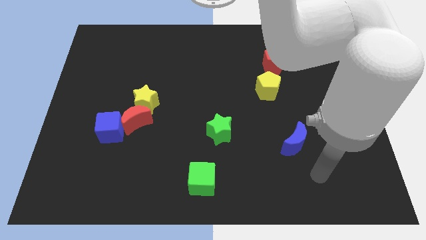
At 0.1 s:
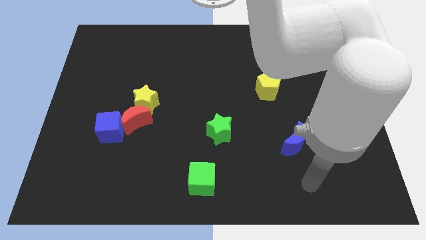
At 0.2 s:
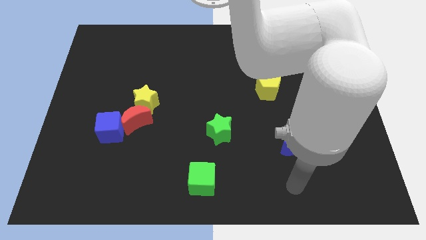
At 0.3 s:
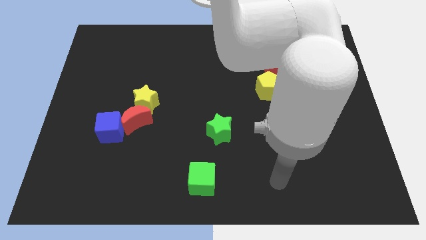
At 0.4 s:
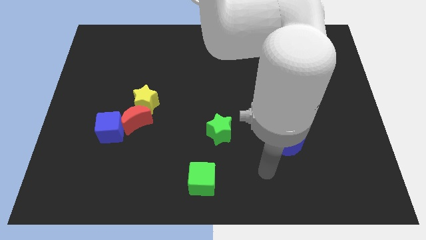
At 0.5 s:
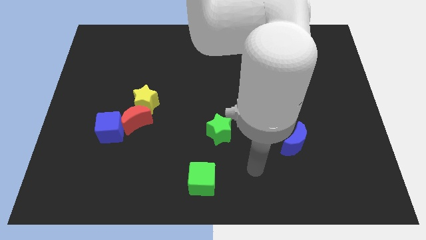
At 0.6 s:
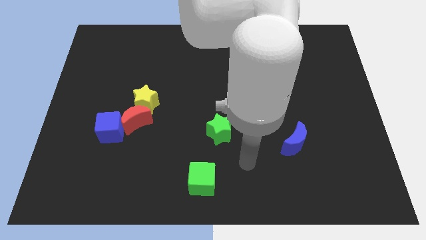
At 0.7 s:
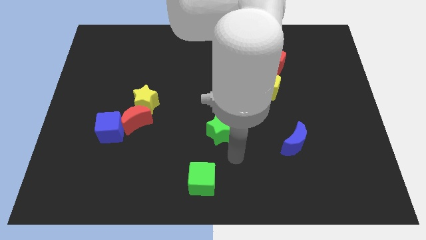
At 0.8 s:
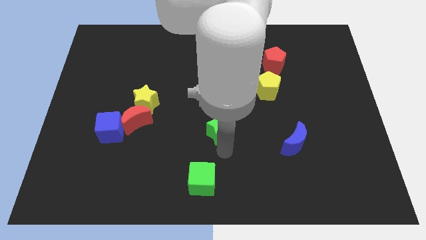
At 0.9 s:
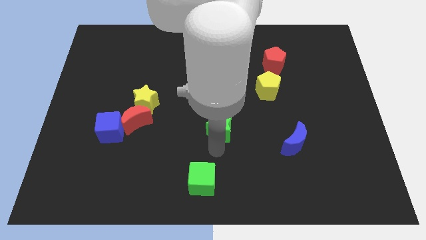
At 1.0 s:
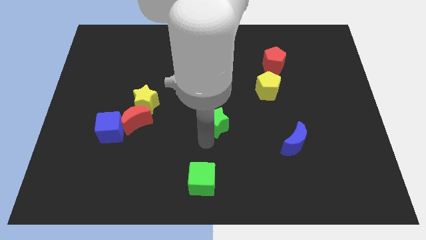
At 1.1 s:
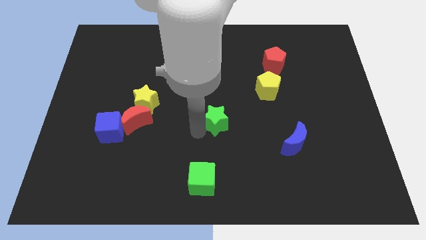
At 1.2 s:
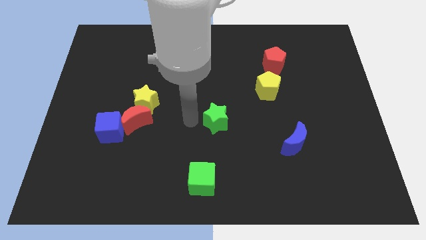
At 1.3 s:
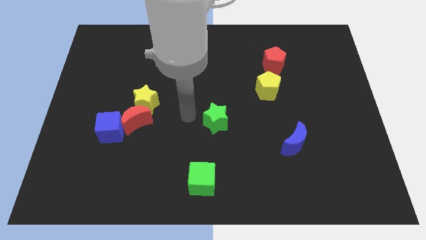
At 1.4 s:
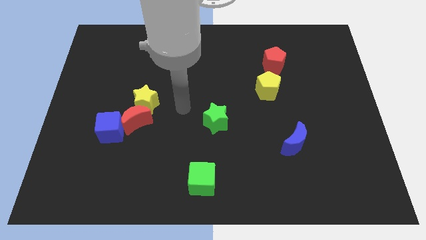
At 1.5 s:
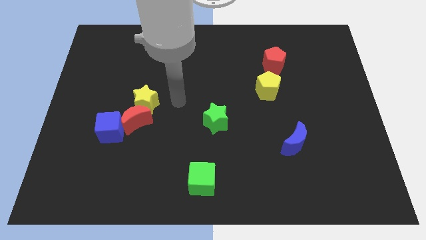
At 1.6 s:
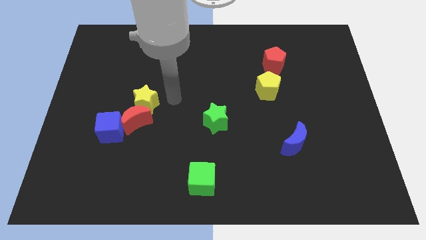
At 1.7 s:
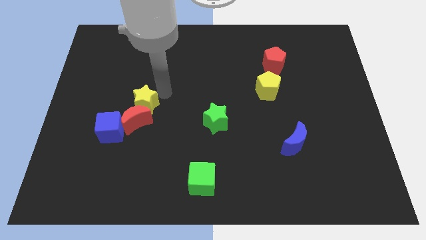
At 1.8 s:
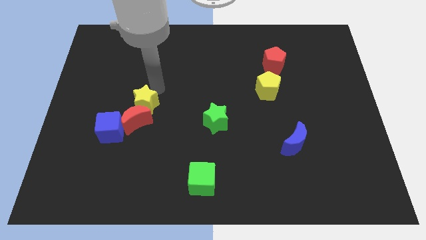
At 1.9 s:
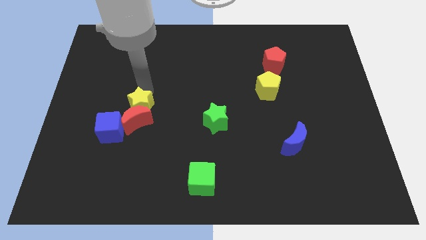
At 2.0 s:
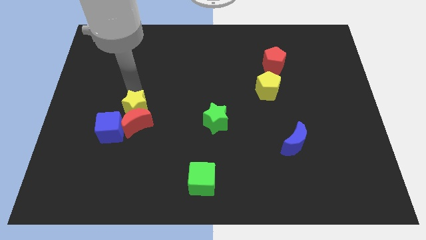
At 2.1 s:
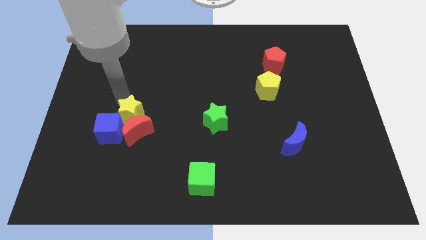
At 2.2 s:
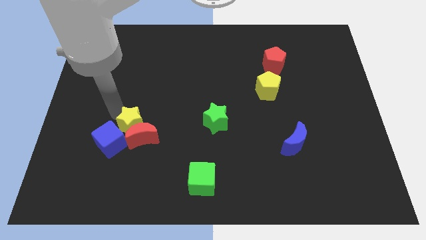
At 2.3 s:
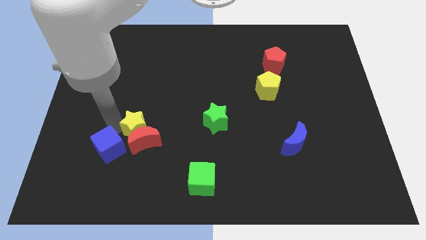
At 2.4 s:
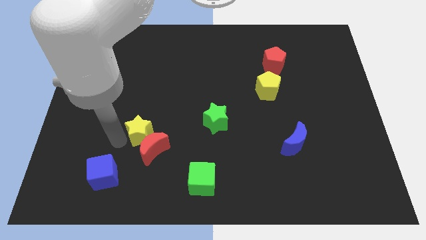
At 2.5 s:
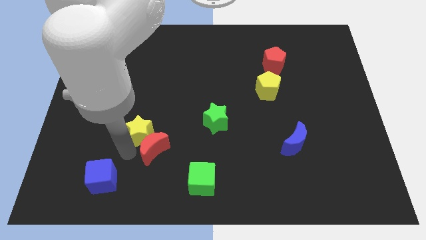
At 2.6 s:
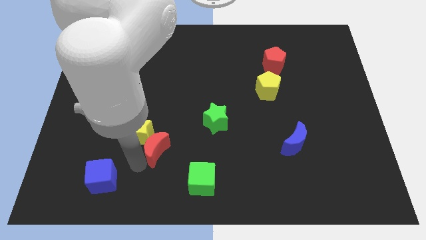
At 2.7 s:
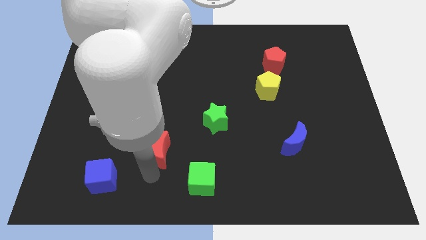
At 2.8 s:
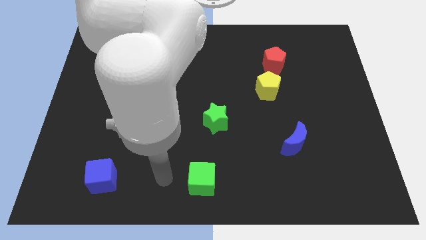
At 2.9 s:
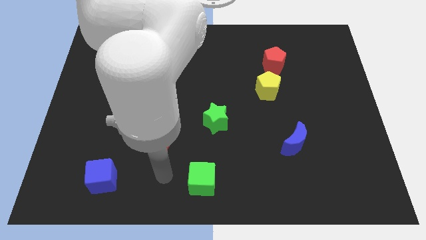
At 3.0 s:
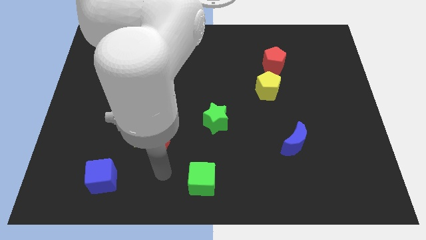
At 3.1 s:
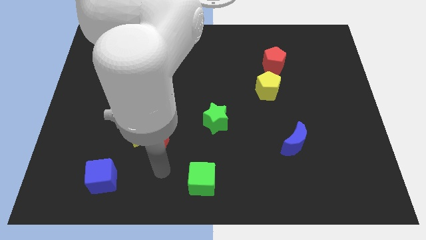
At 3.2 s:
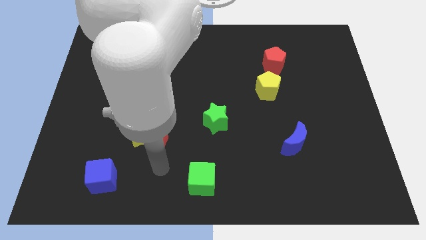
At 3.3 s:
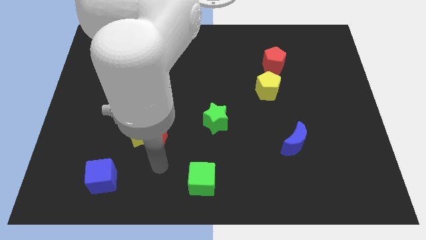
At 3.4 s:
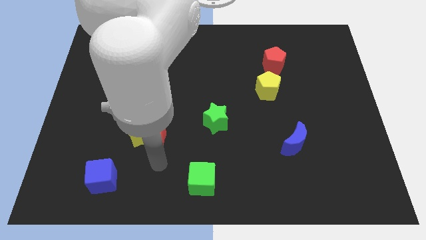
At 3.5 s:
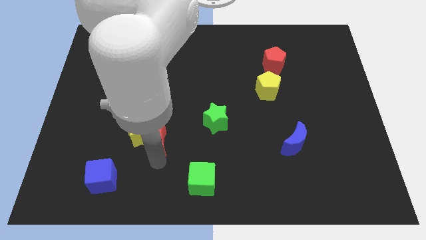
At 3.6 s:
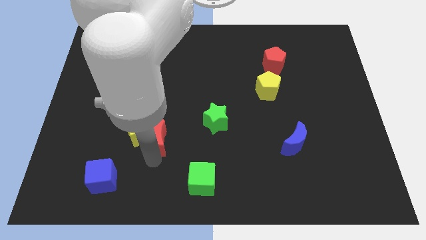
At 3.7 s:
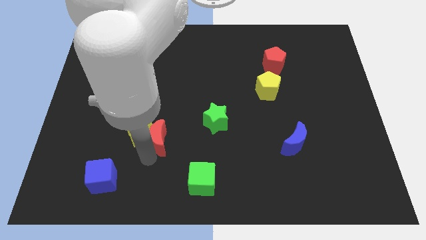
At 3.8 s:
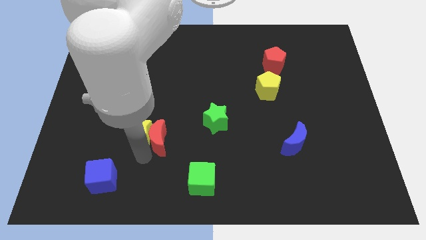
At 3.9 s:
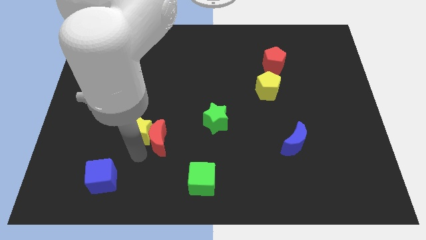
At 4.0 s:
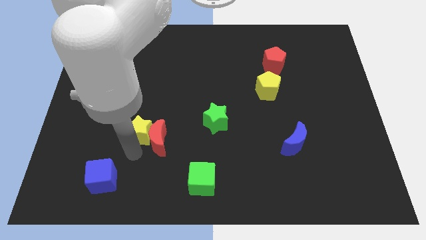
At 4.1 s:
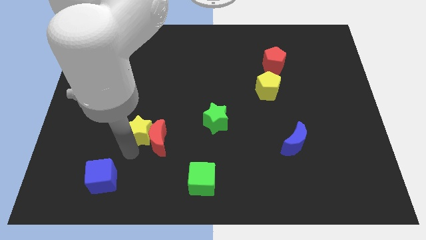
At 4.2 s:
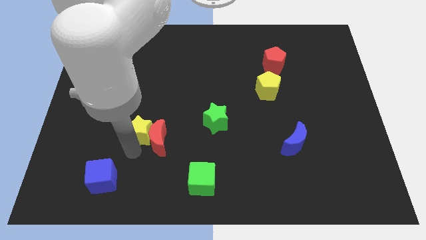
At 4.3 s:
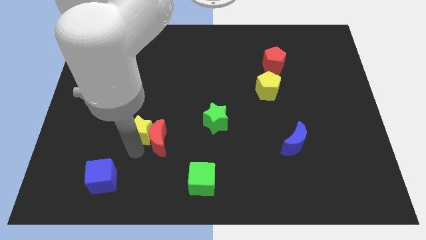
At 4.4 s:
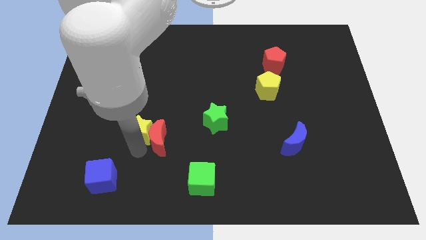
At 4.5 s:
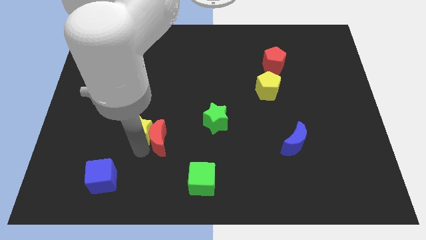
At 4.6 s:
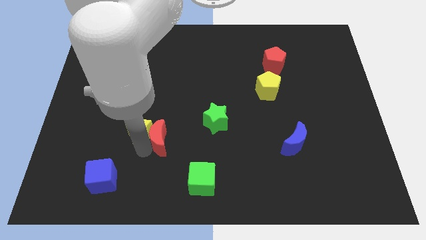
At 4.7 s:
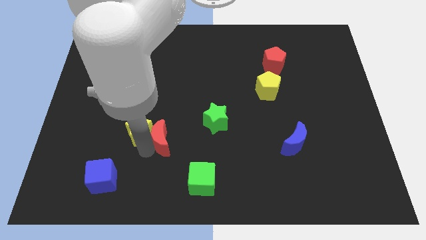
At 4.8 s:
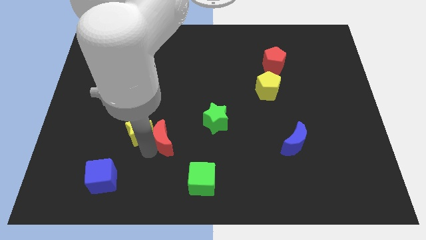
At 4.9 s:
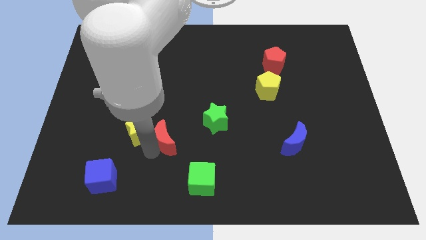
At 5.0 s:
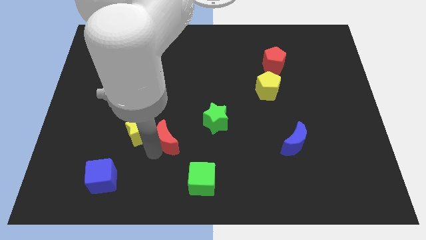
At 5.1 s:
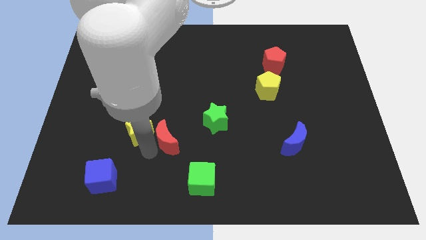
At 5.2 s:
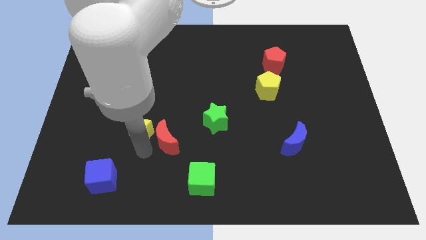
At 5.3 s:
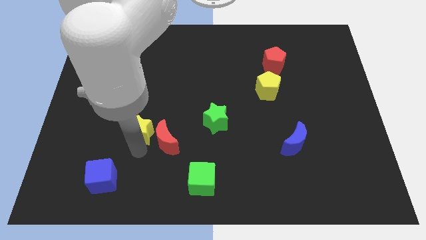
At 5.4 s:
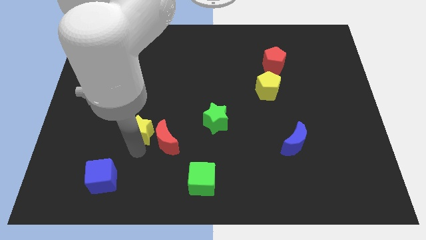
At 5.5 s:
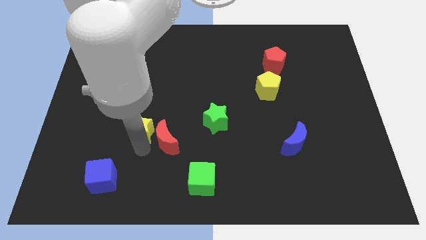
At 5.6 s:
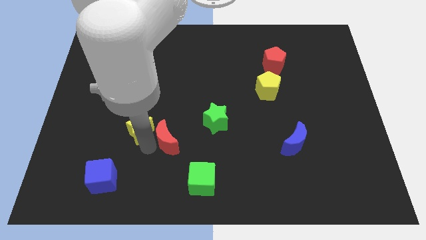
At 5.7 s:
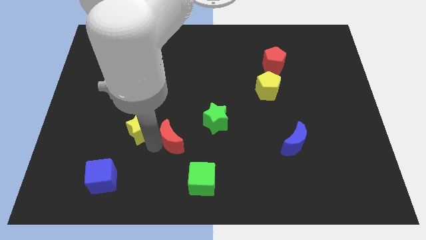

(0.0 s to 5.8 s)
pull the red moon apart from the yellow star and blue cube

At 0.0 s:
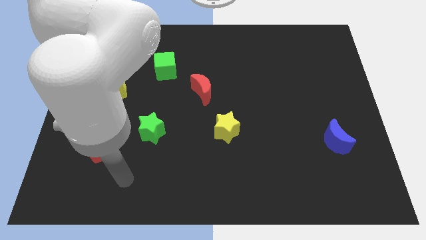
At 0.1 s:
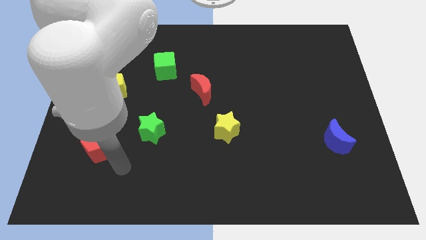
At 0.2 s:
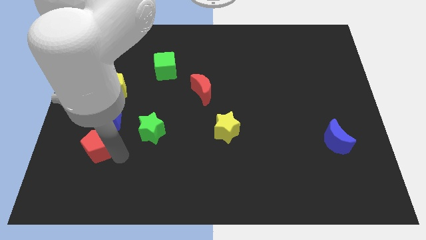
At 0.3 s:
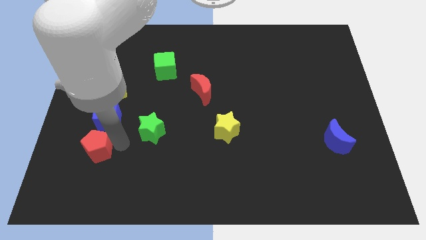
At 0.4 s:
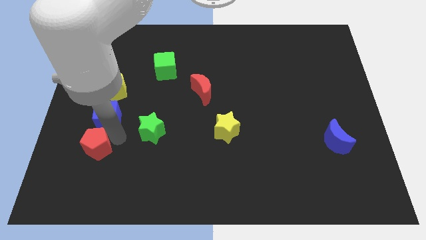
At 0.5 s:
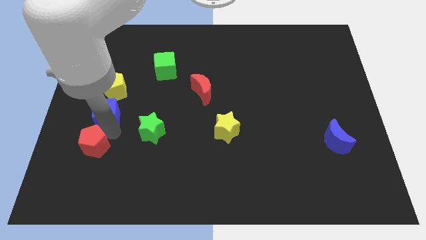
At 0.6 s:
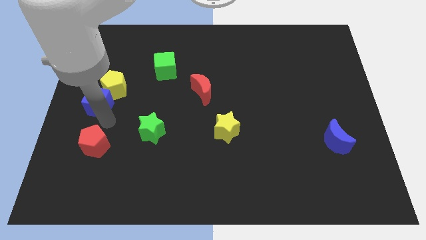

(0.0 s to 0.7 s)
pull the red pentagon apart from the blue cube

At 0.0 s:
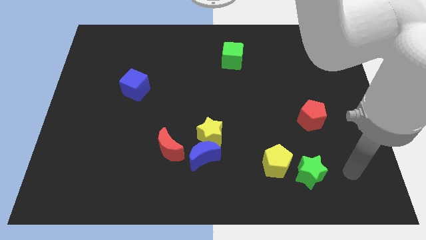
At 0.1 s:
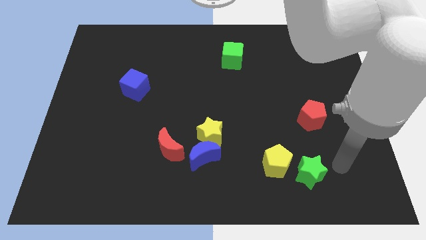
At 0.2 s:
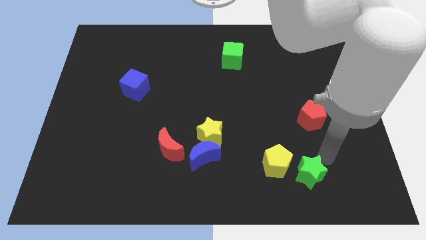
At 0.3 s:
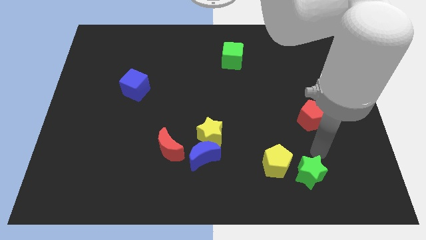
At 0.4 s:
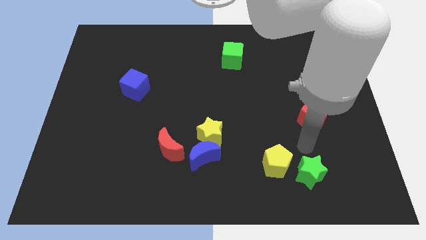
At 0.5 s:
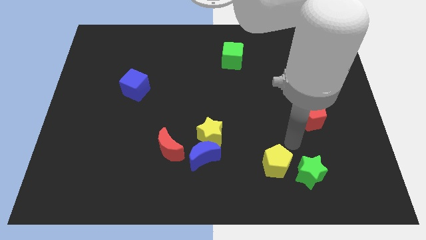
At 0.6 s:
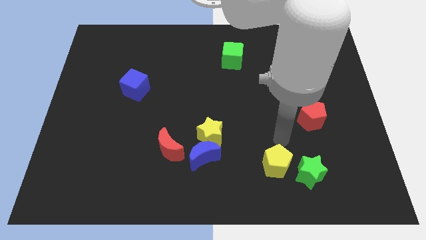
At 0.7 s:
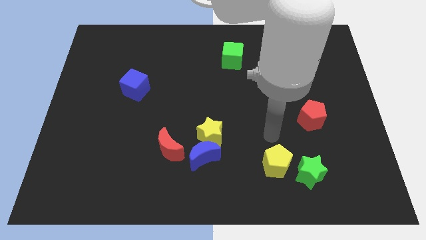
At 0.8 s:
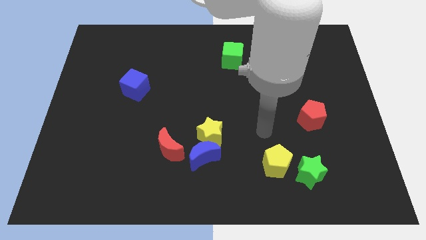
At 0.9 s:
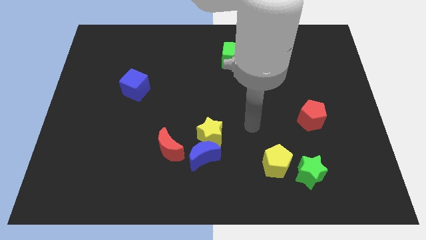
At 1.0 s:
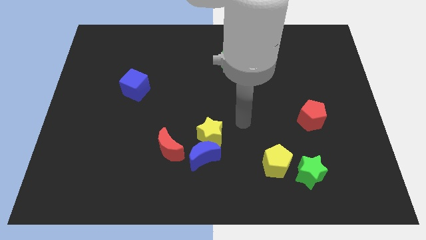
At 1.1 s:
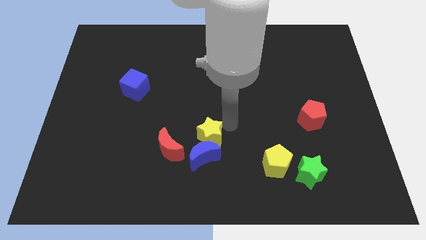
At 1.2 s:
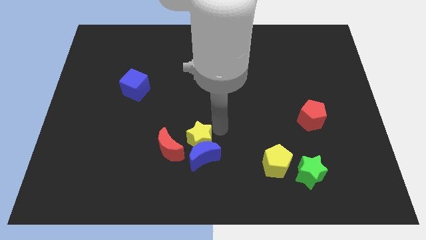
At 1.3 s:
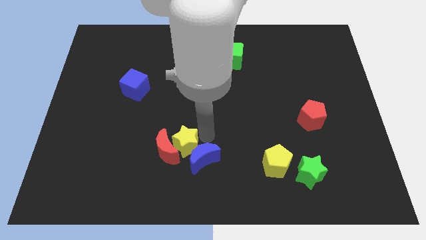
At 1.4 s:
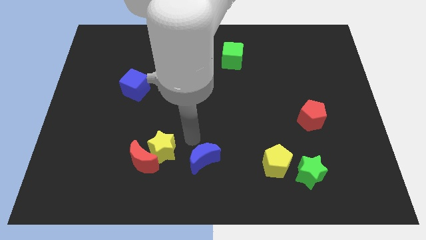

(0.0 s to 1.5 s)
separate the blue moon from the yellow star and red moon

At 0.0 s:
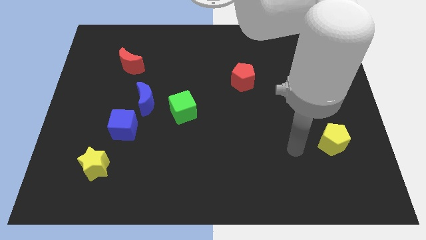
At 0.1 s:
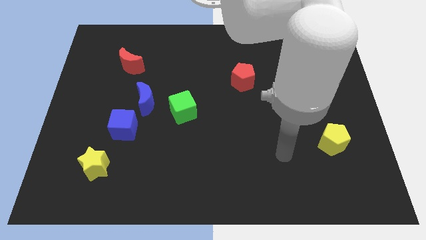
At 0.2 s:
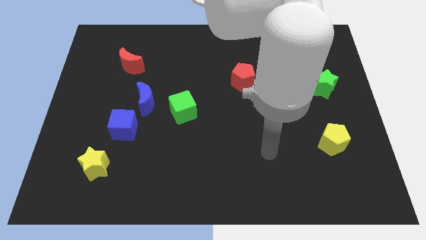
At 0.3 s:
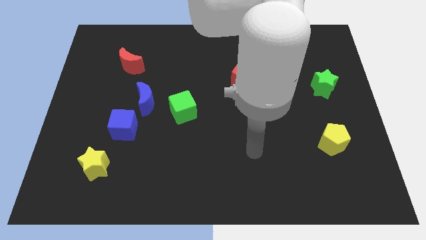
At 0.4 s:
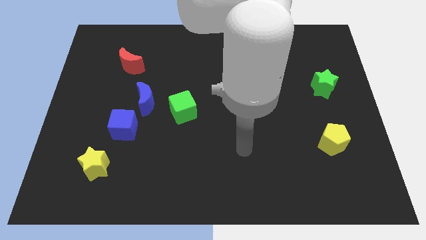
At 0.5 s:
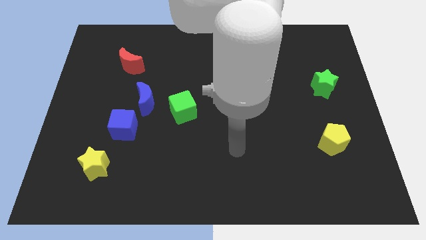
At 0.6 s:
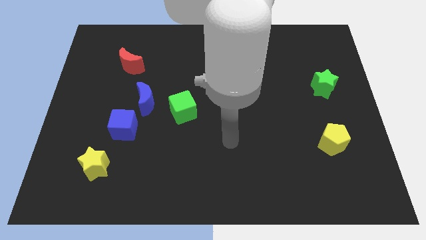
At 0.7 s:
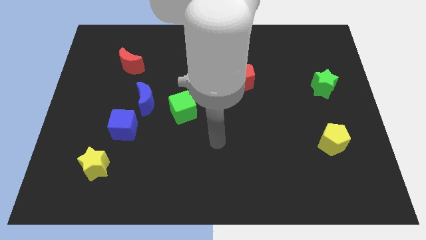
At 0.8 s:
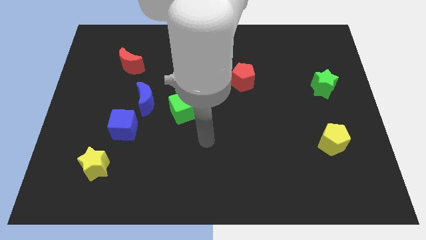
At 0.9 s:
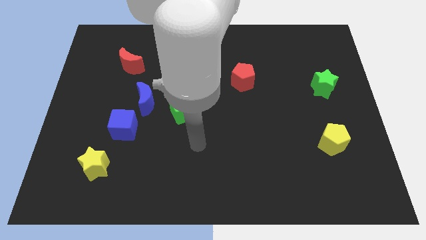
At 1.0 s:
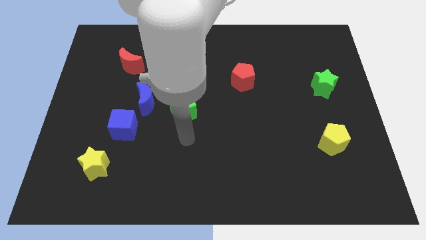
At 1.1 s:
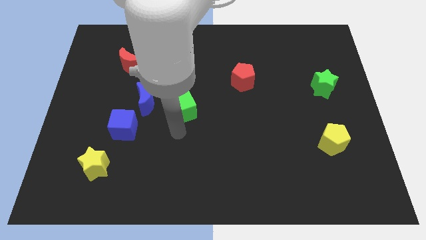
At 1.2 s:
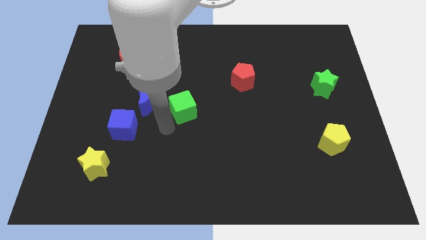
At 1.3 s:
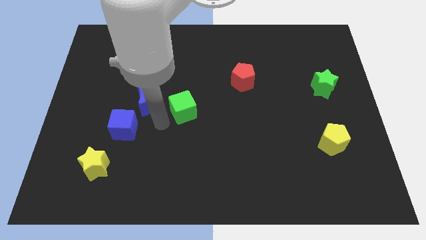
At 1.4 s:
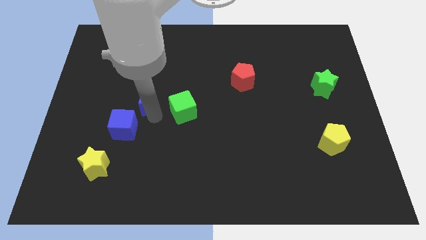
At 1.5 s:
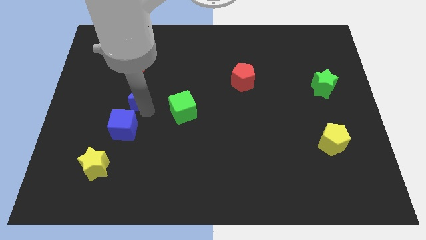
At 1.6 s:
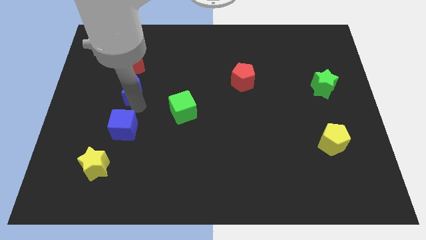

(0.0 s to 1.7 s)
move the blue cube away from the blue moon
